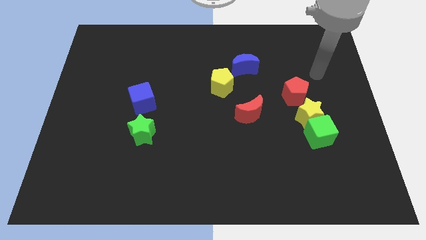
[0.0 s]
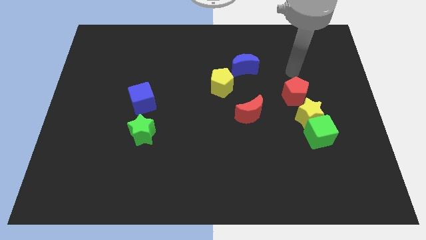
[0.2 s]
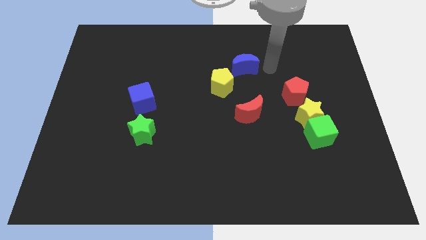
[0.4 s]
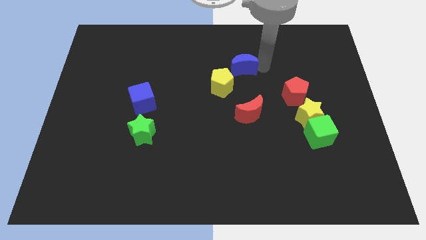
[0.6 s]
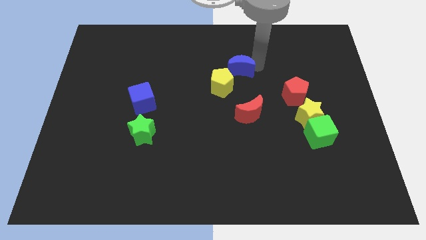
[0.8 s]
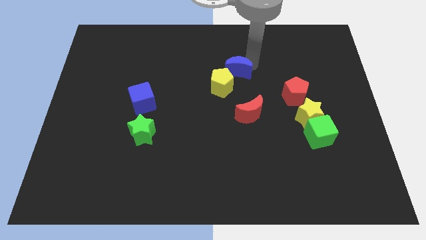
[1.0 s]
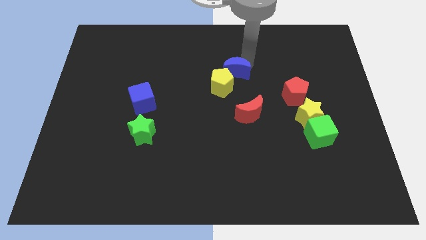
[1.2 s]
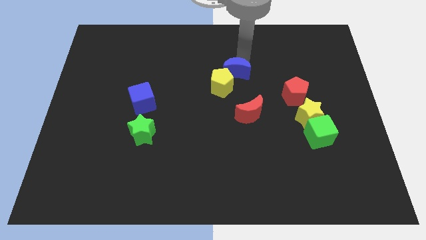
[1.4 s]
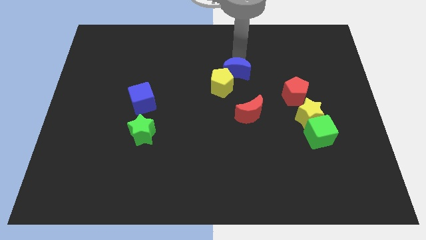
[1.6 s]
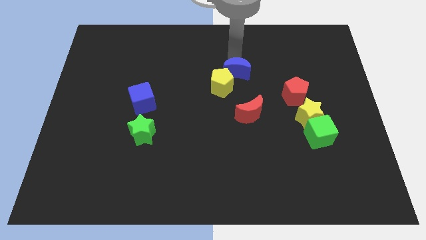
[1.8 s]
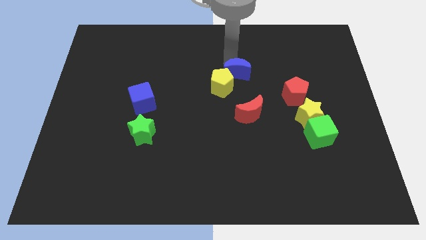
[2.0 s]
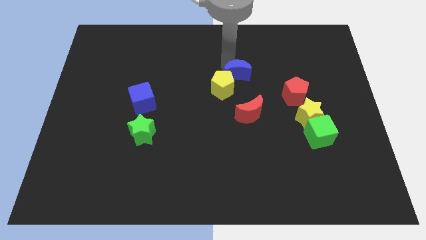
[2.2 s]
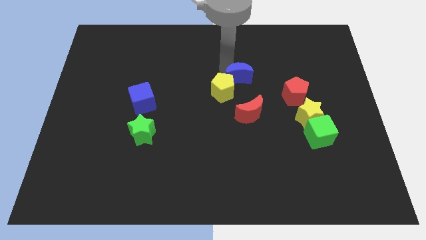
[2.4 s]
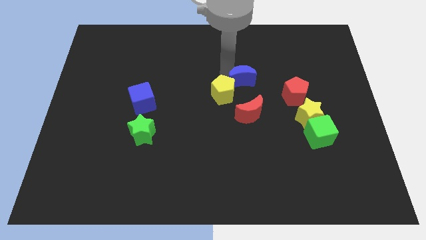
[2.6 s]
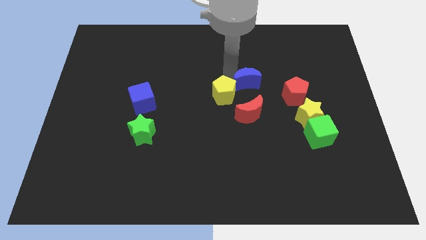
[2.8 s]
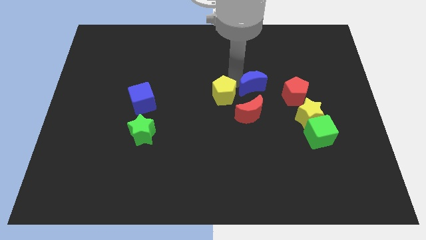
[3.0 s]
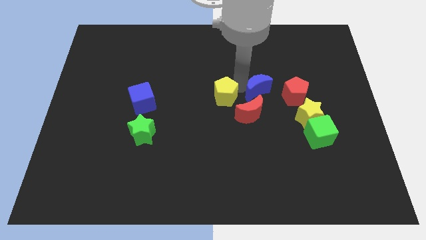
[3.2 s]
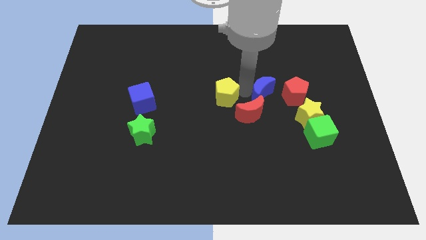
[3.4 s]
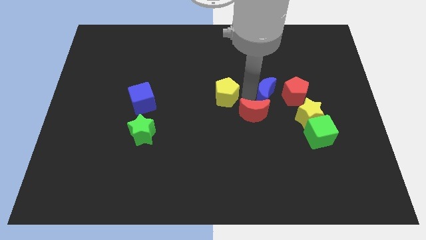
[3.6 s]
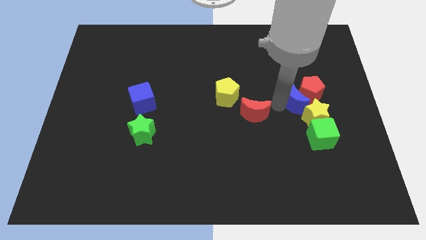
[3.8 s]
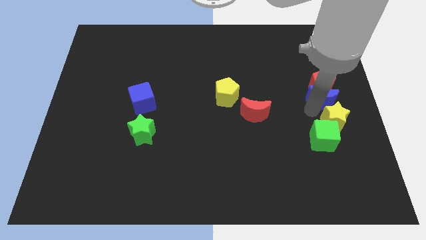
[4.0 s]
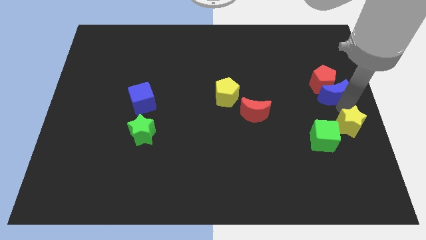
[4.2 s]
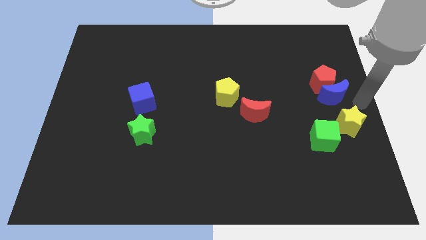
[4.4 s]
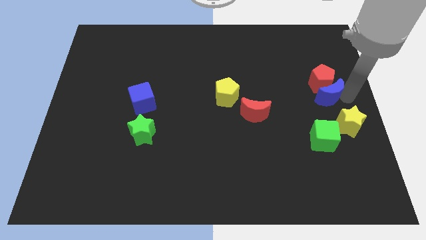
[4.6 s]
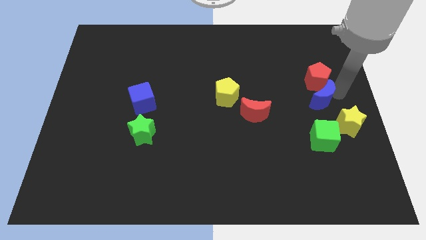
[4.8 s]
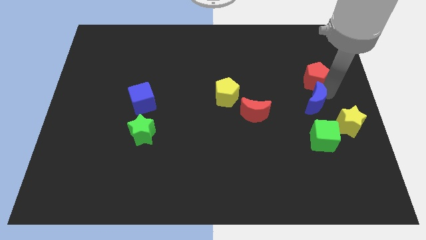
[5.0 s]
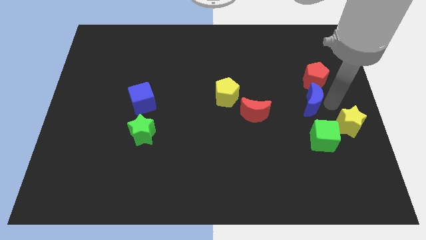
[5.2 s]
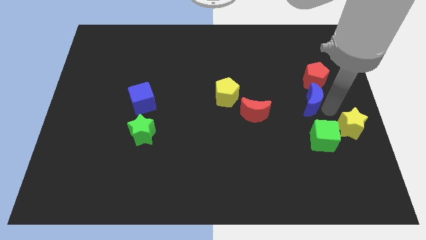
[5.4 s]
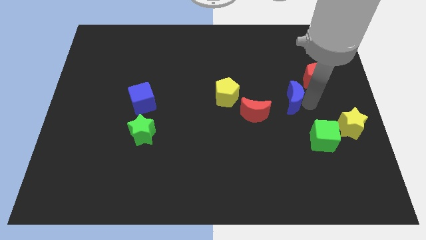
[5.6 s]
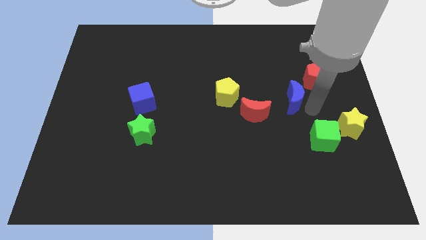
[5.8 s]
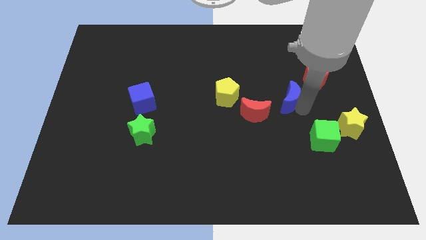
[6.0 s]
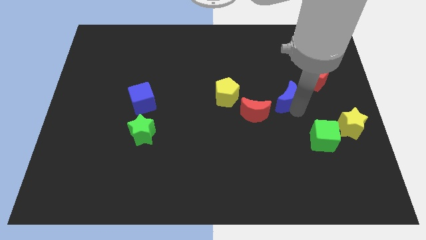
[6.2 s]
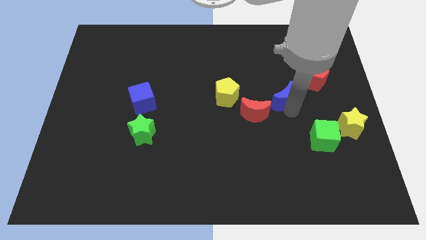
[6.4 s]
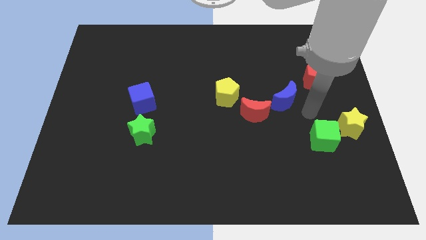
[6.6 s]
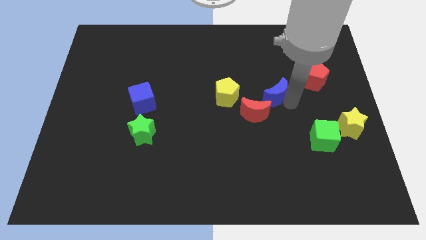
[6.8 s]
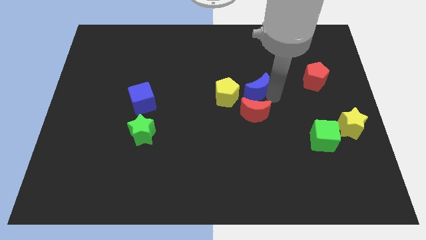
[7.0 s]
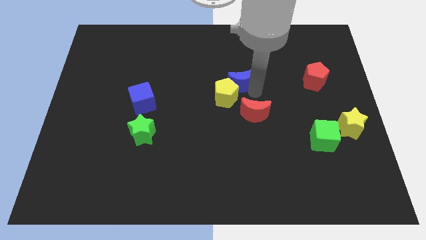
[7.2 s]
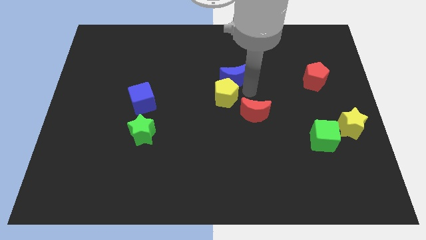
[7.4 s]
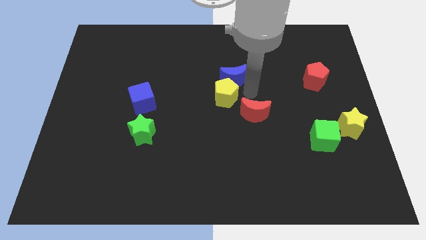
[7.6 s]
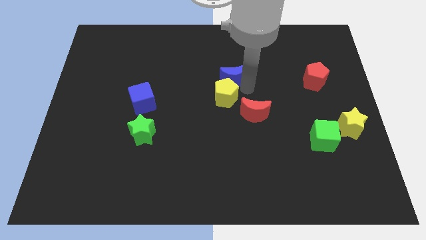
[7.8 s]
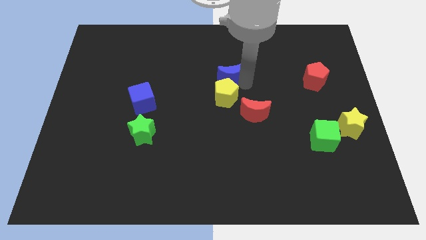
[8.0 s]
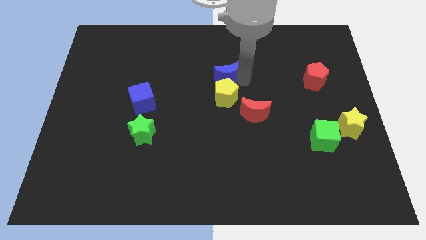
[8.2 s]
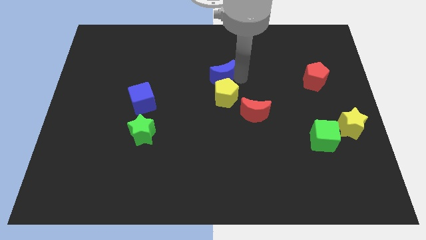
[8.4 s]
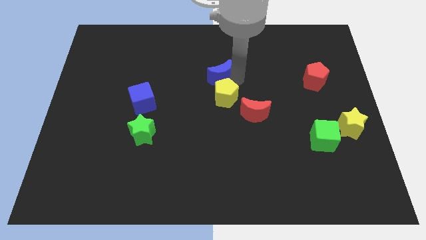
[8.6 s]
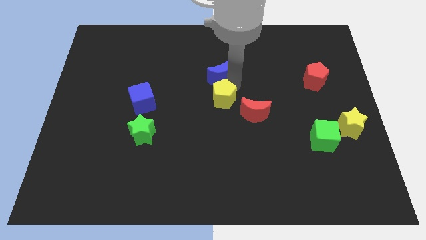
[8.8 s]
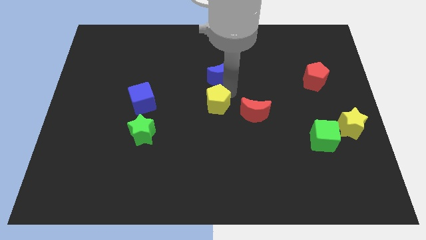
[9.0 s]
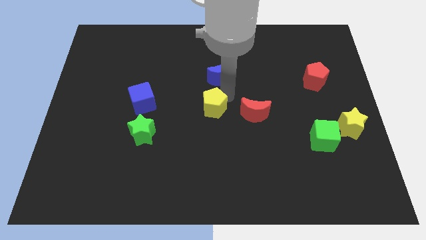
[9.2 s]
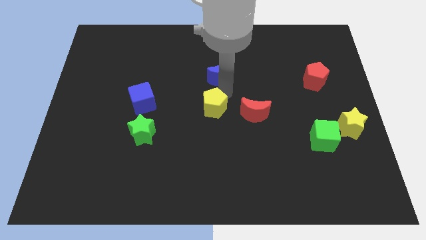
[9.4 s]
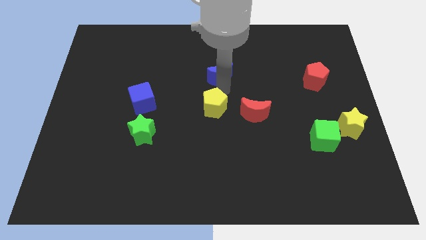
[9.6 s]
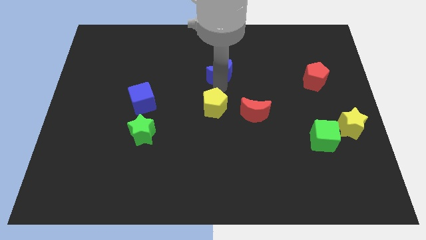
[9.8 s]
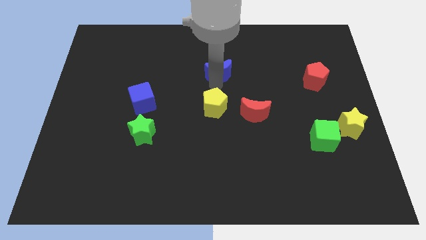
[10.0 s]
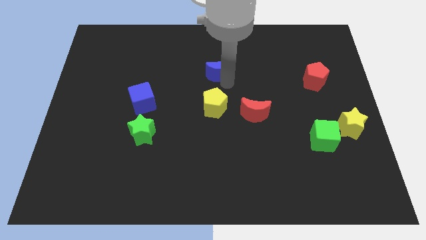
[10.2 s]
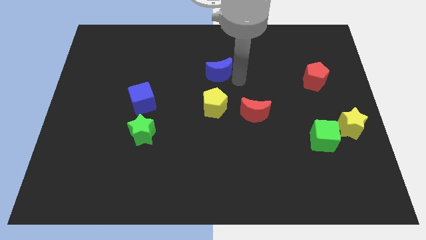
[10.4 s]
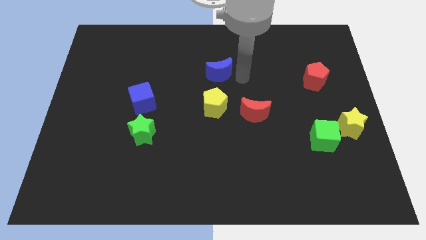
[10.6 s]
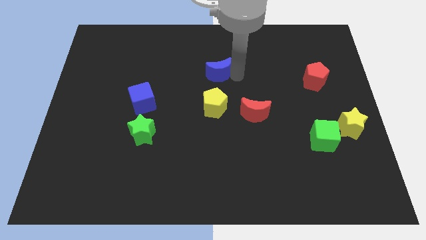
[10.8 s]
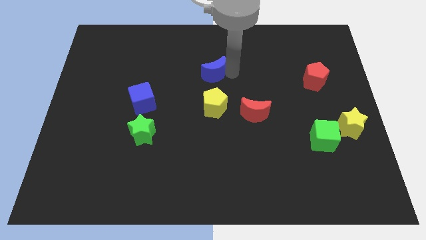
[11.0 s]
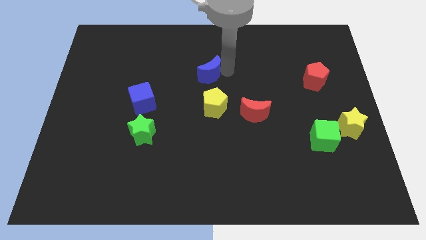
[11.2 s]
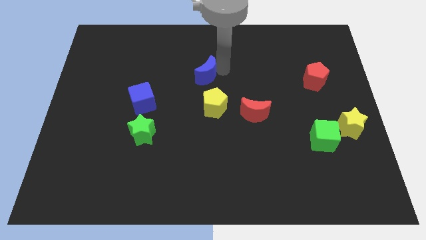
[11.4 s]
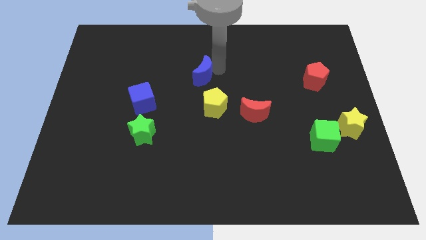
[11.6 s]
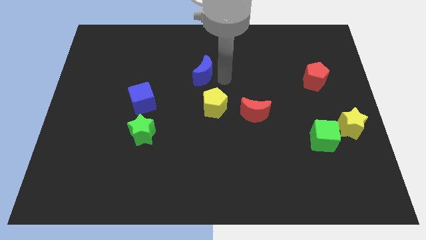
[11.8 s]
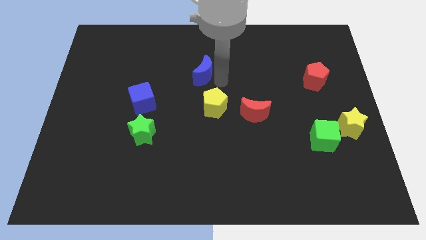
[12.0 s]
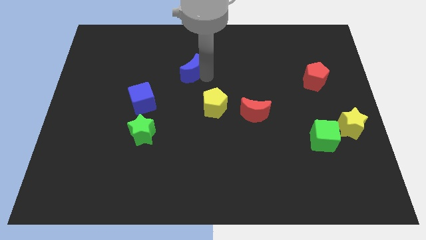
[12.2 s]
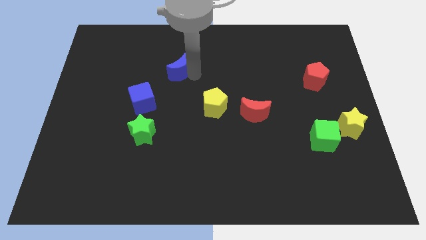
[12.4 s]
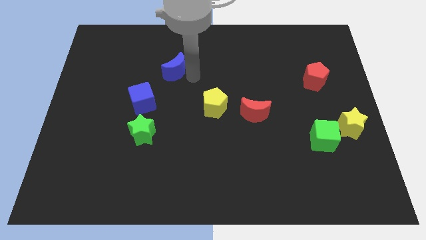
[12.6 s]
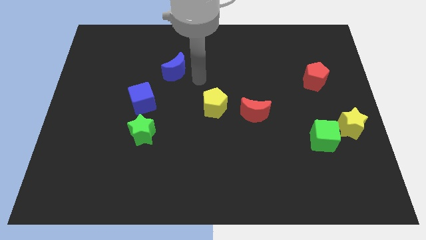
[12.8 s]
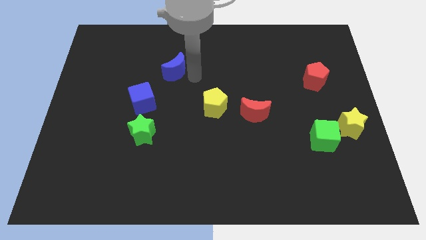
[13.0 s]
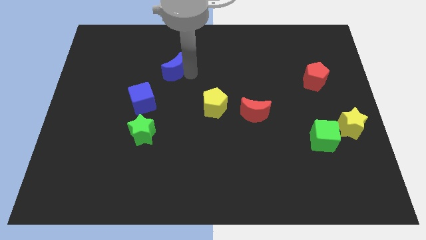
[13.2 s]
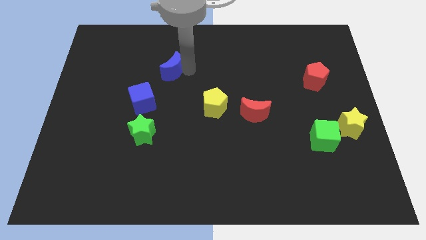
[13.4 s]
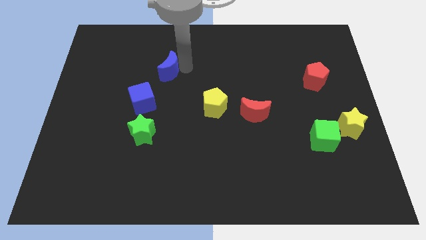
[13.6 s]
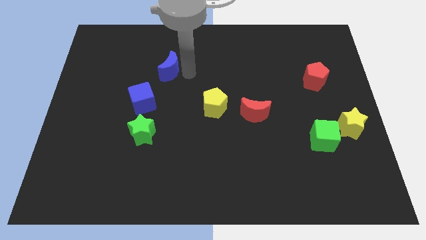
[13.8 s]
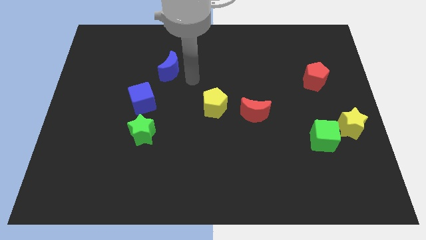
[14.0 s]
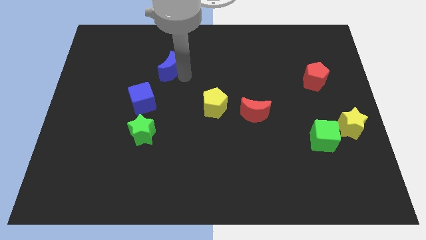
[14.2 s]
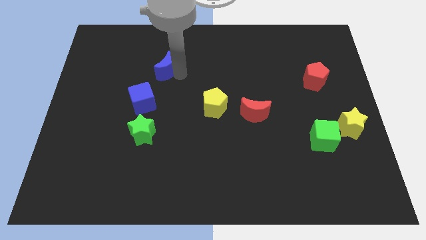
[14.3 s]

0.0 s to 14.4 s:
move the blue moon left

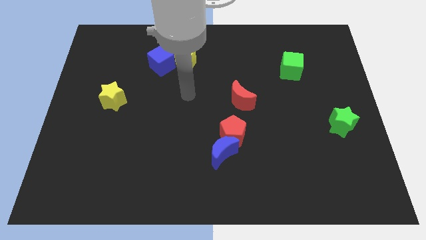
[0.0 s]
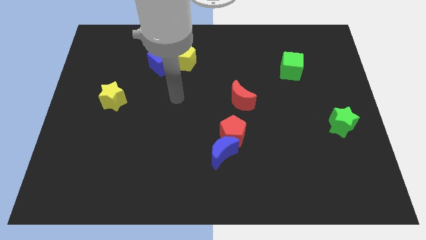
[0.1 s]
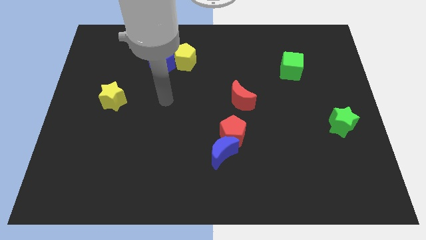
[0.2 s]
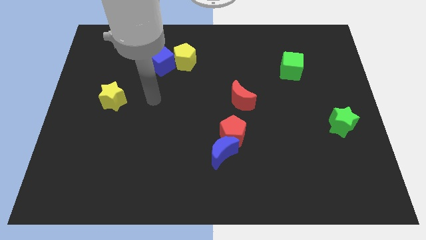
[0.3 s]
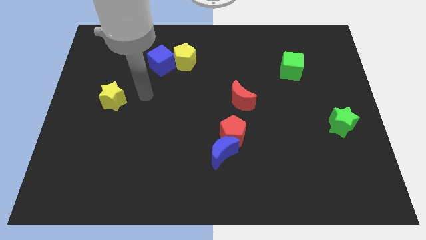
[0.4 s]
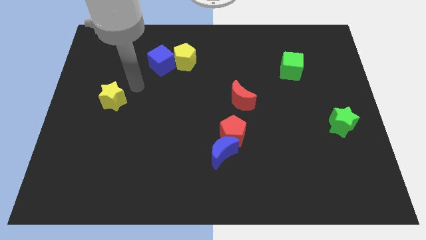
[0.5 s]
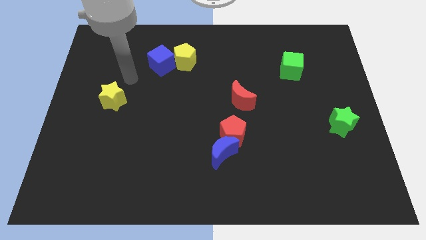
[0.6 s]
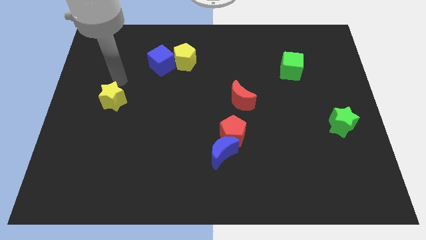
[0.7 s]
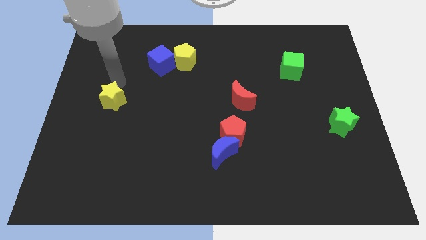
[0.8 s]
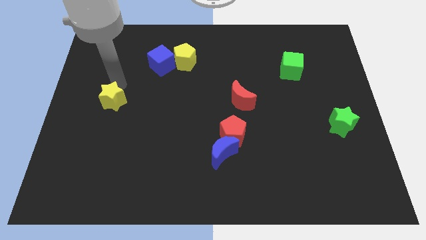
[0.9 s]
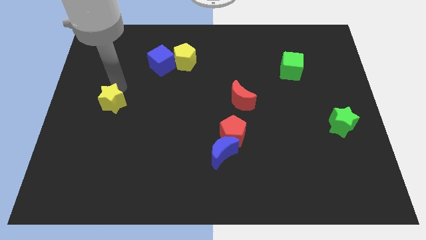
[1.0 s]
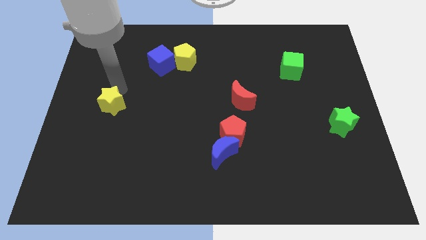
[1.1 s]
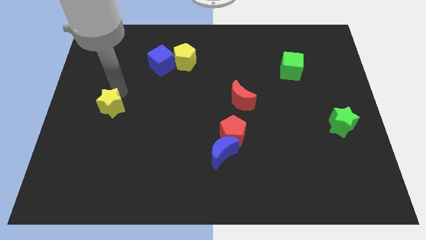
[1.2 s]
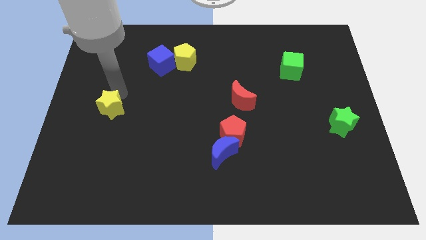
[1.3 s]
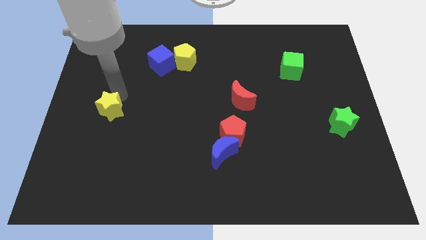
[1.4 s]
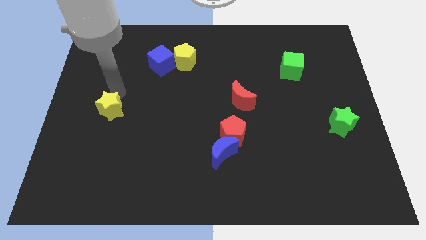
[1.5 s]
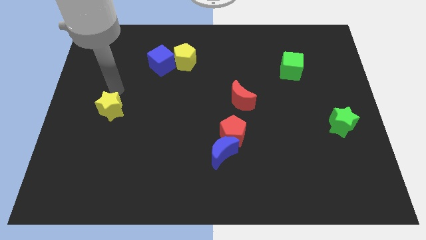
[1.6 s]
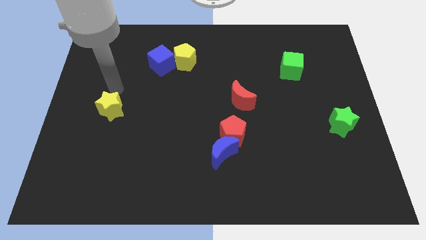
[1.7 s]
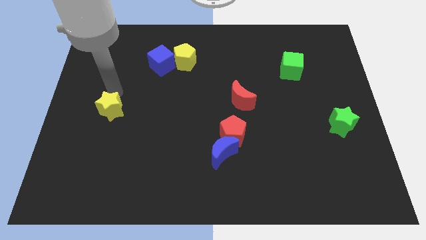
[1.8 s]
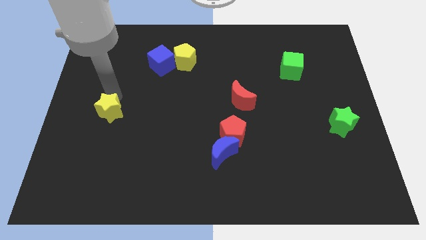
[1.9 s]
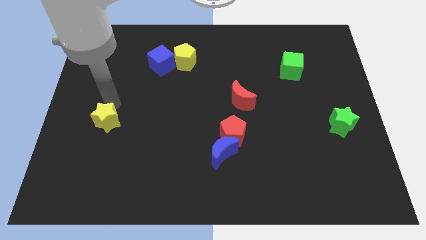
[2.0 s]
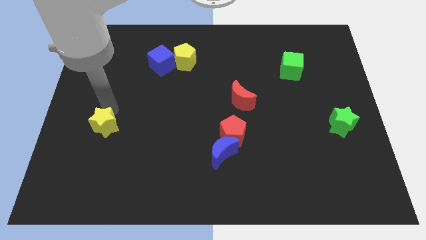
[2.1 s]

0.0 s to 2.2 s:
push the yellow star down slightly
